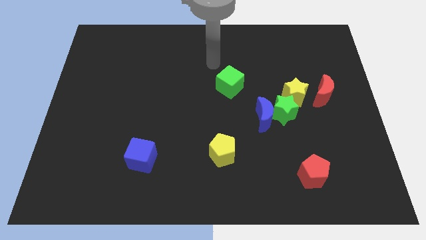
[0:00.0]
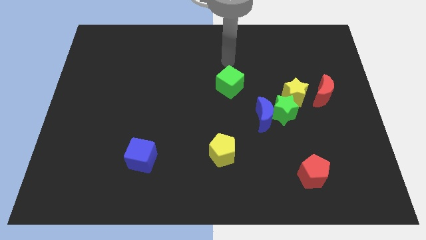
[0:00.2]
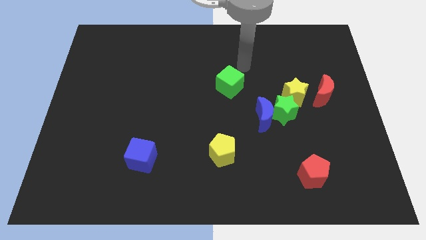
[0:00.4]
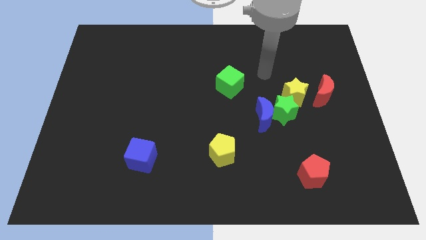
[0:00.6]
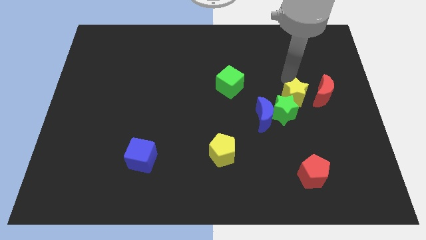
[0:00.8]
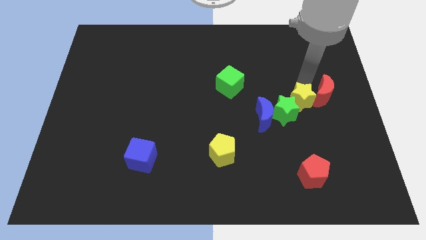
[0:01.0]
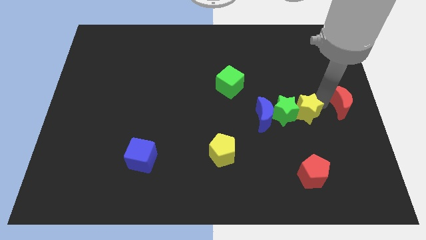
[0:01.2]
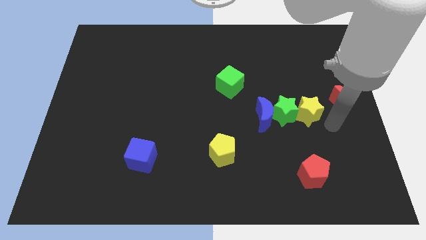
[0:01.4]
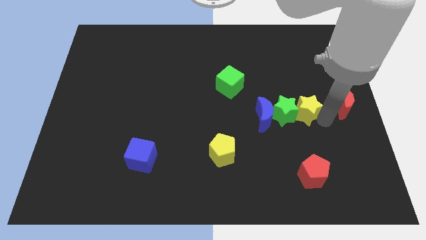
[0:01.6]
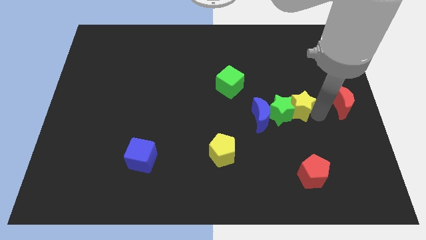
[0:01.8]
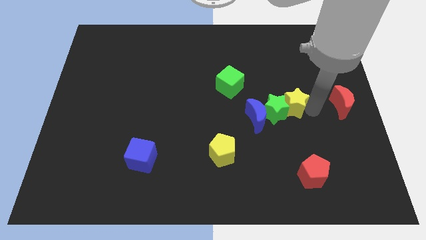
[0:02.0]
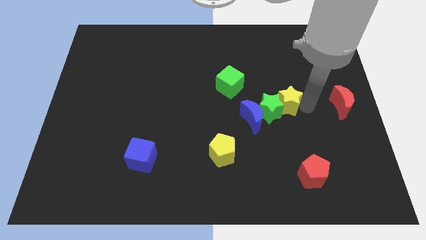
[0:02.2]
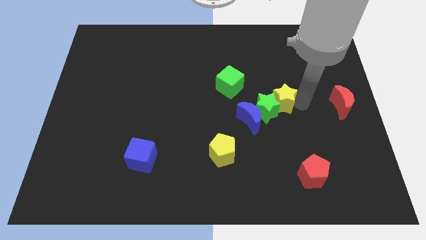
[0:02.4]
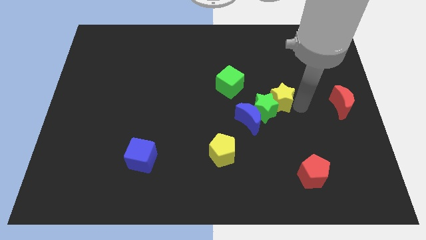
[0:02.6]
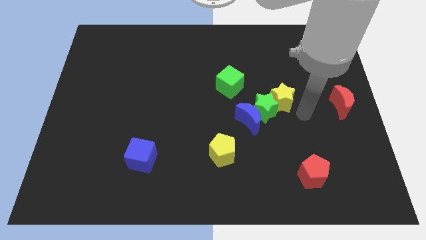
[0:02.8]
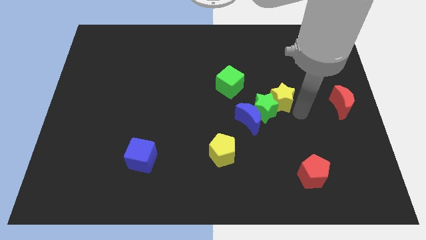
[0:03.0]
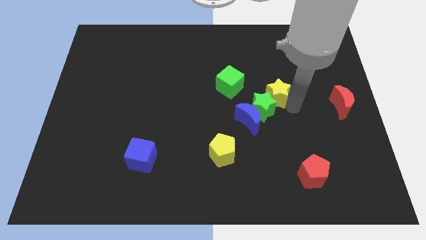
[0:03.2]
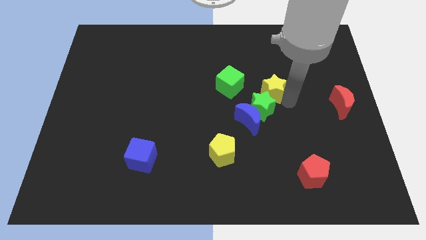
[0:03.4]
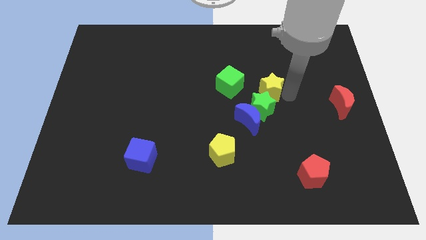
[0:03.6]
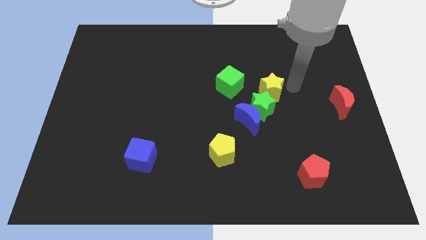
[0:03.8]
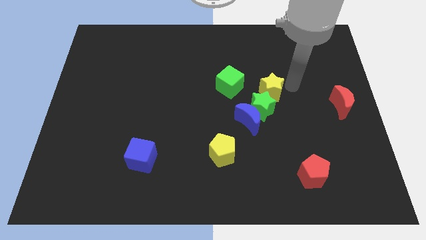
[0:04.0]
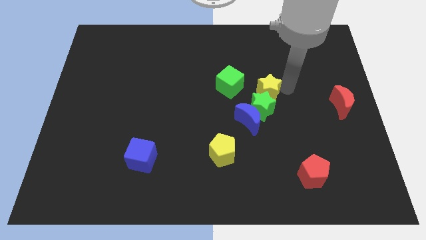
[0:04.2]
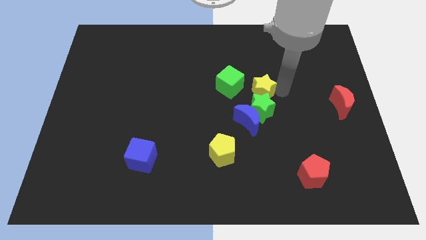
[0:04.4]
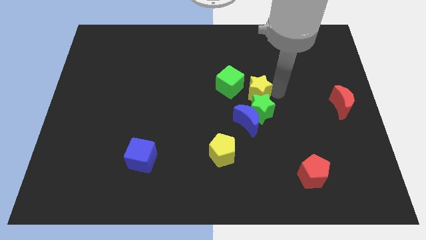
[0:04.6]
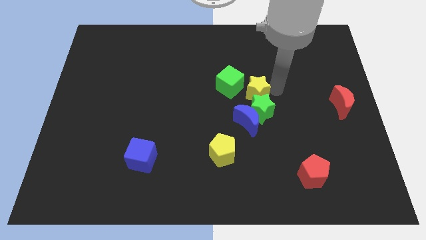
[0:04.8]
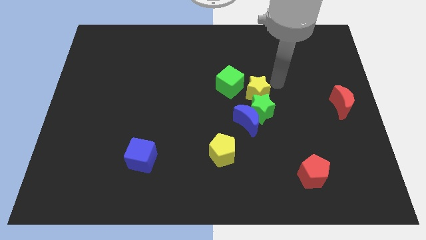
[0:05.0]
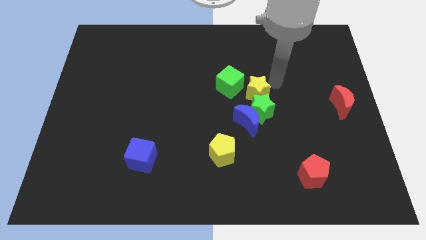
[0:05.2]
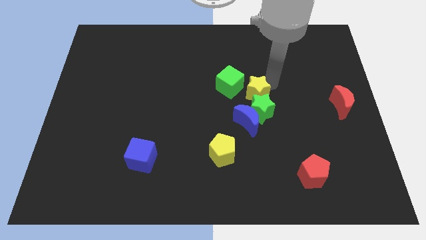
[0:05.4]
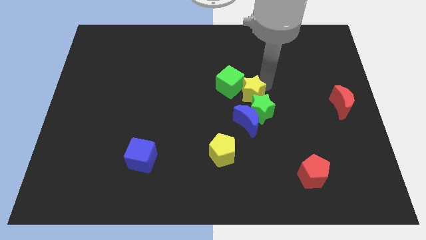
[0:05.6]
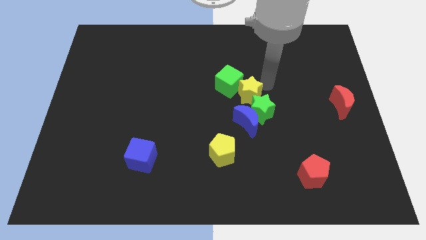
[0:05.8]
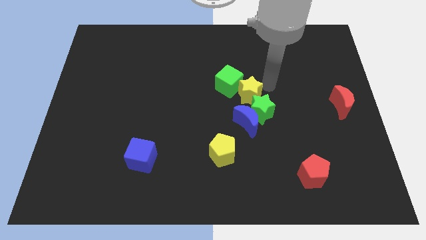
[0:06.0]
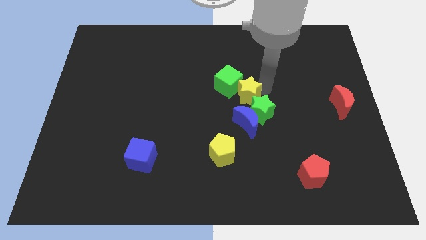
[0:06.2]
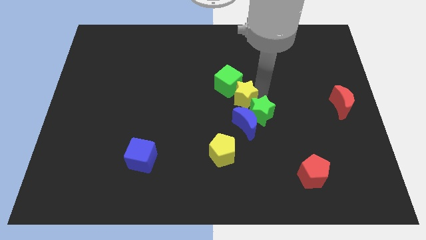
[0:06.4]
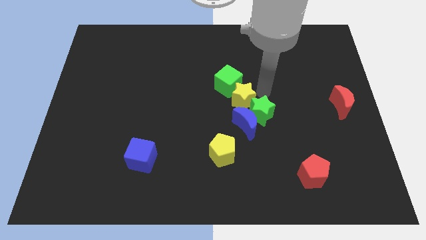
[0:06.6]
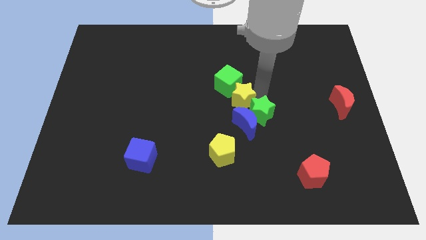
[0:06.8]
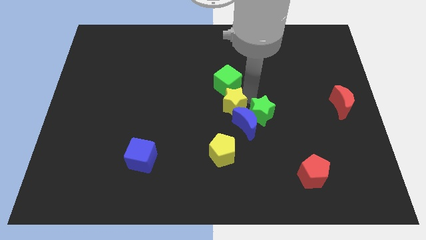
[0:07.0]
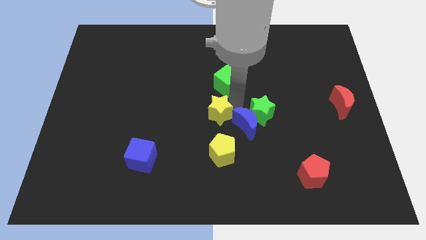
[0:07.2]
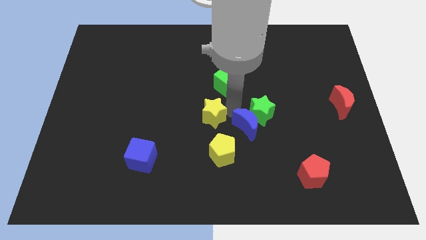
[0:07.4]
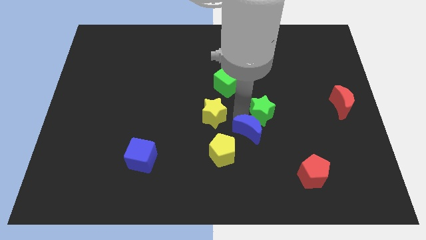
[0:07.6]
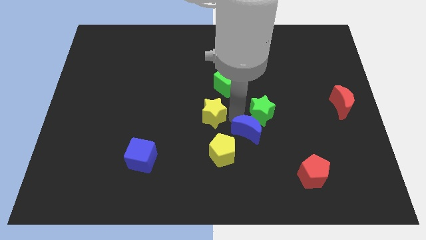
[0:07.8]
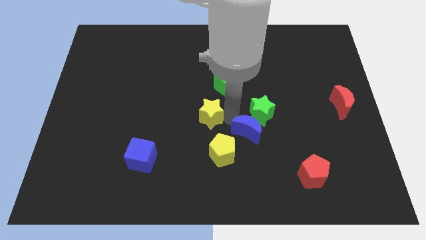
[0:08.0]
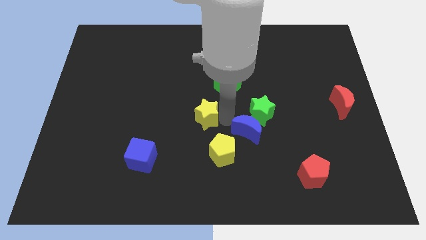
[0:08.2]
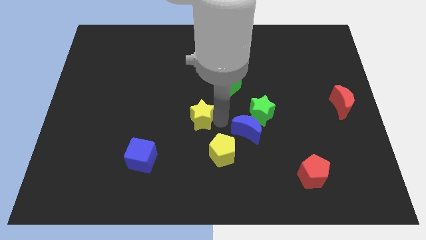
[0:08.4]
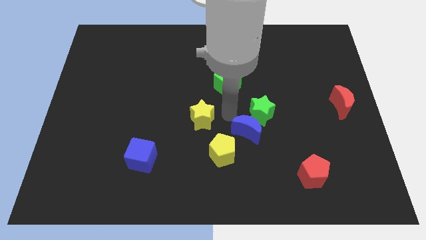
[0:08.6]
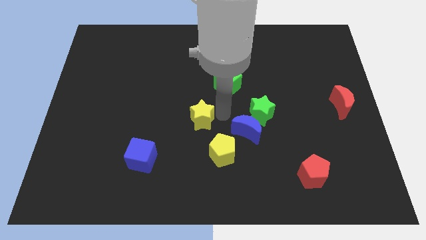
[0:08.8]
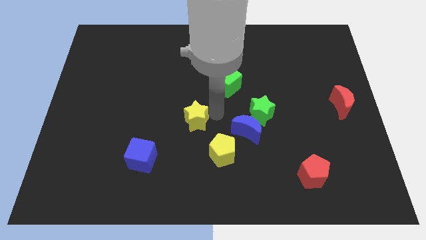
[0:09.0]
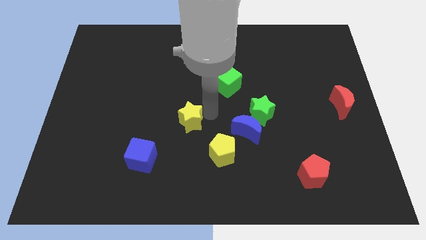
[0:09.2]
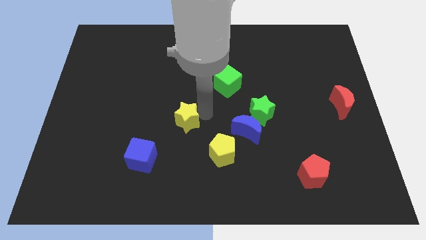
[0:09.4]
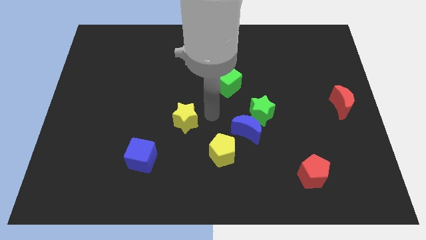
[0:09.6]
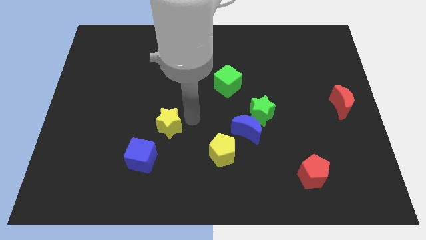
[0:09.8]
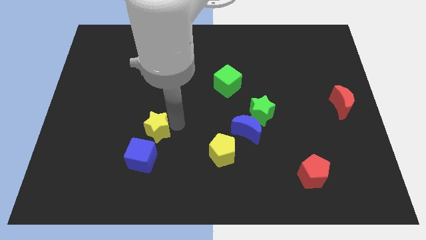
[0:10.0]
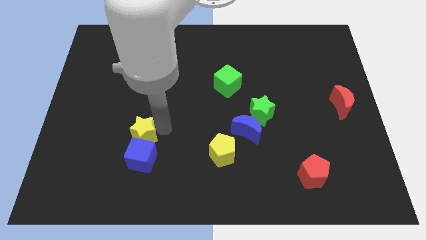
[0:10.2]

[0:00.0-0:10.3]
push the yellow star diagonally up and to the left of the blue cube

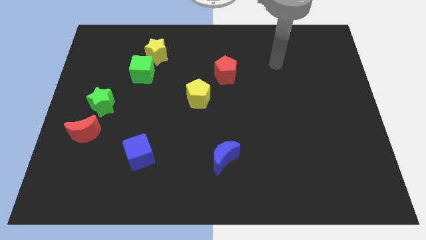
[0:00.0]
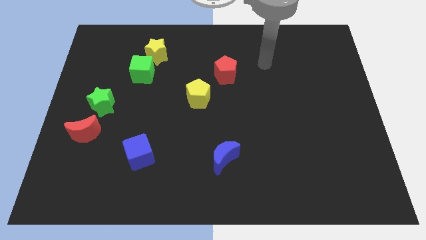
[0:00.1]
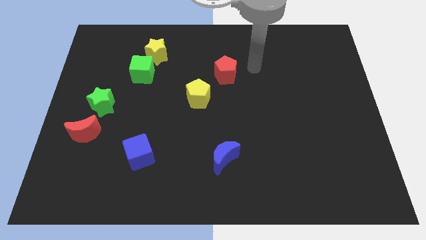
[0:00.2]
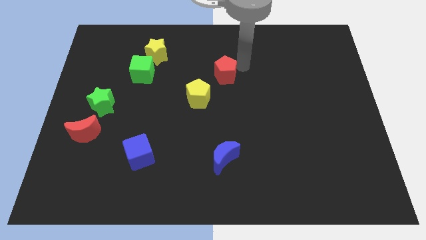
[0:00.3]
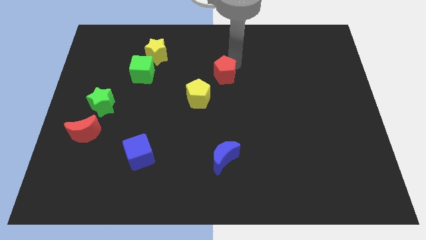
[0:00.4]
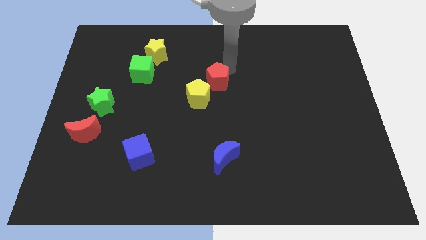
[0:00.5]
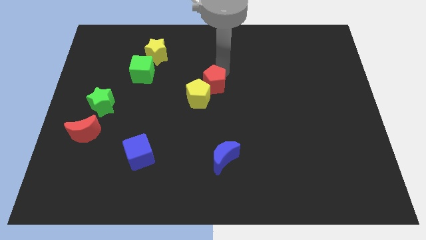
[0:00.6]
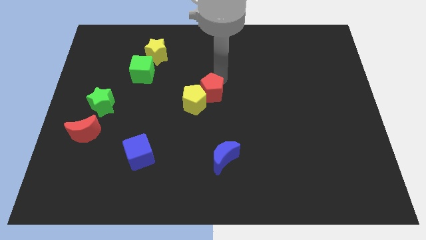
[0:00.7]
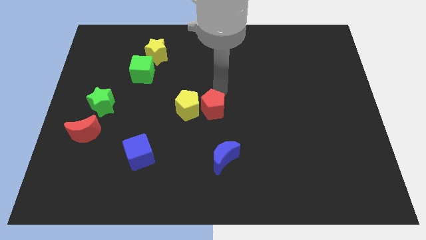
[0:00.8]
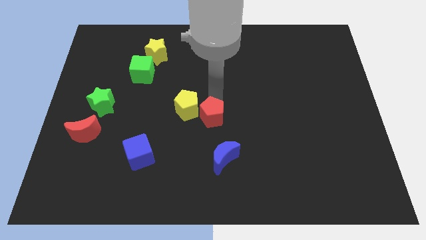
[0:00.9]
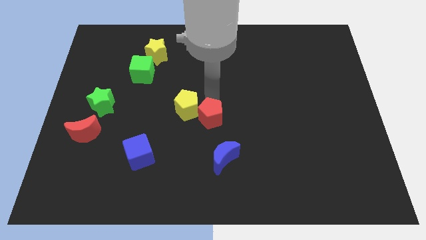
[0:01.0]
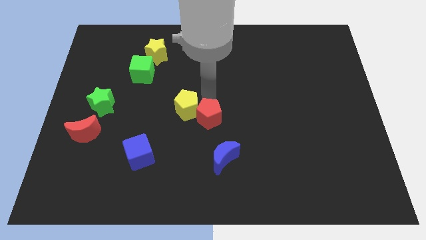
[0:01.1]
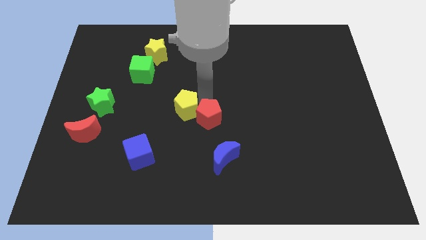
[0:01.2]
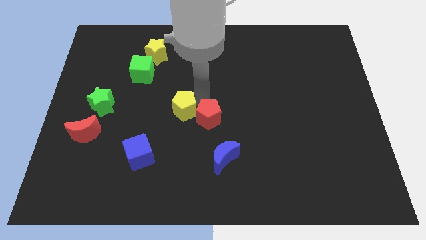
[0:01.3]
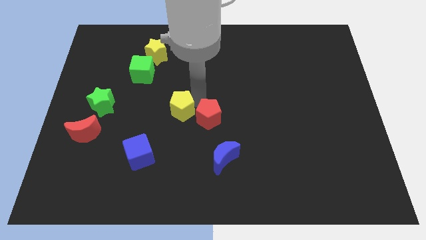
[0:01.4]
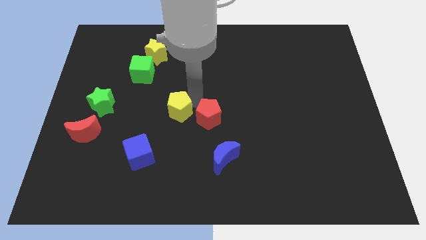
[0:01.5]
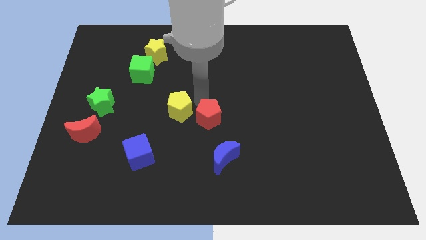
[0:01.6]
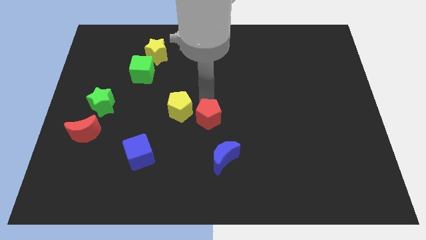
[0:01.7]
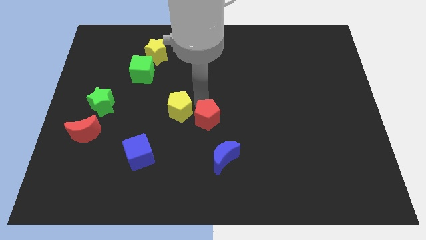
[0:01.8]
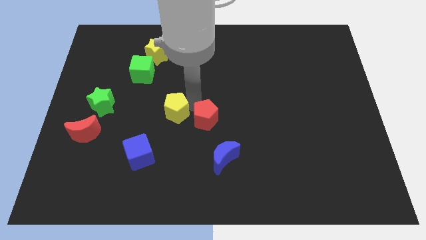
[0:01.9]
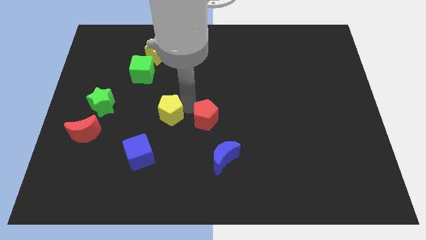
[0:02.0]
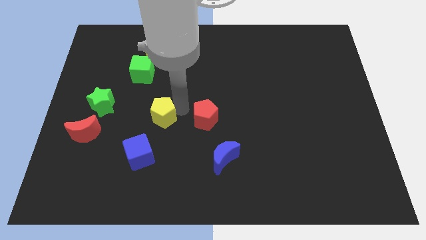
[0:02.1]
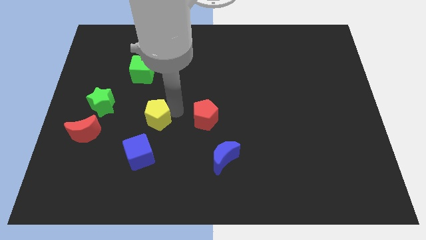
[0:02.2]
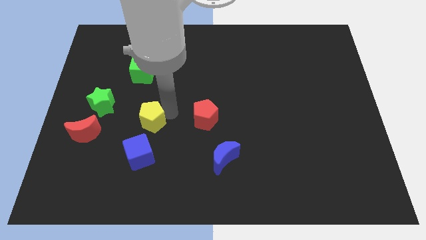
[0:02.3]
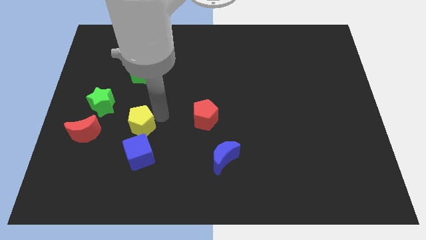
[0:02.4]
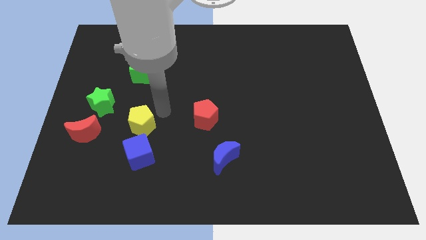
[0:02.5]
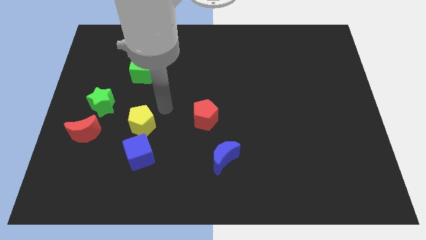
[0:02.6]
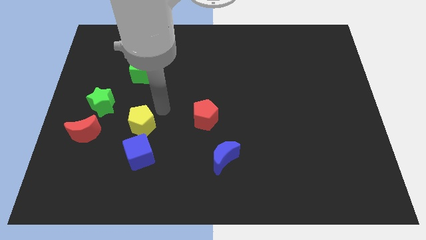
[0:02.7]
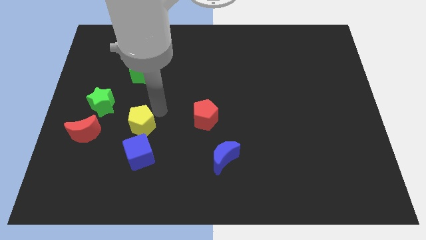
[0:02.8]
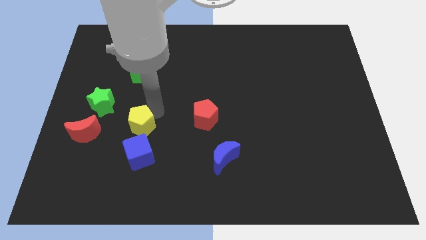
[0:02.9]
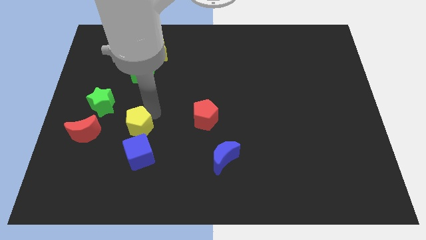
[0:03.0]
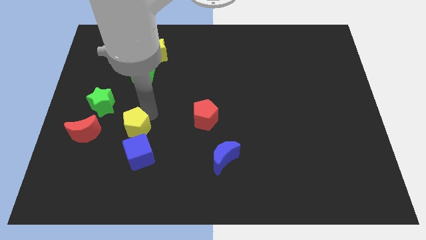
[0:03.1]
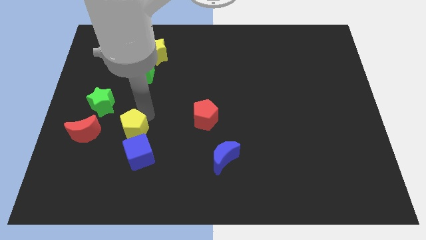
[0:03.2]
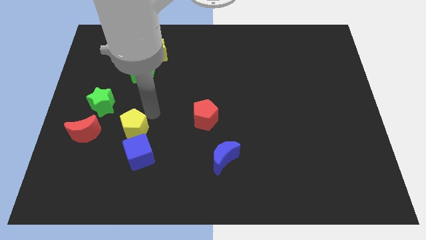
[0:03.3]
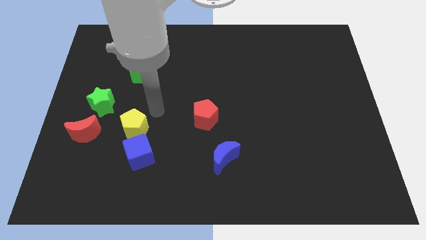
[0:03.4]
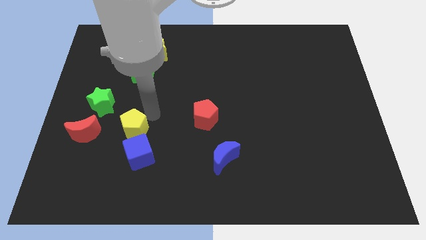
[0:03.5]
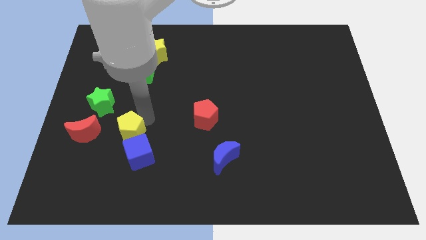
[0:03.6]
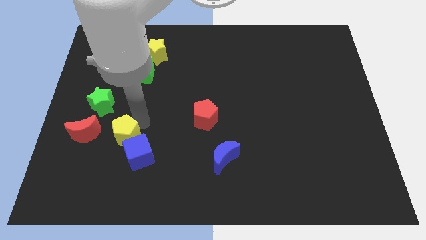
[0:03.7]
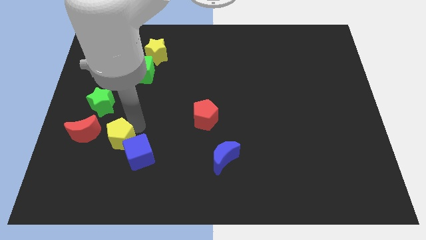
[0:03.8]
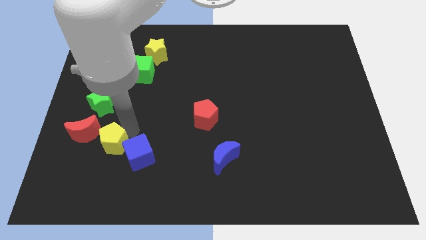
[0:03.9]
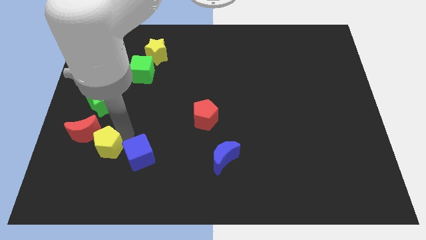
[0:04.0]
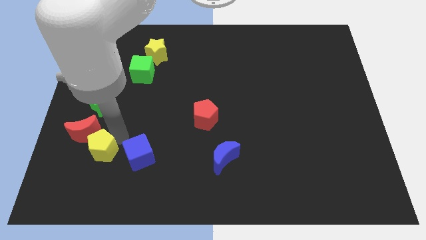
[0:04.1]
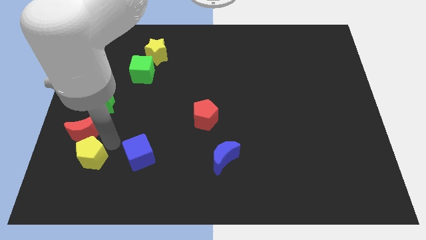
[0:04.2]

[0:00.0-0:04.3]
slide the yellow pentagon to the bottom side of the red moon
